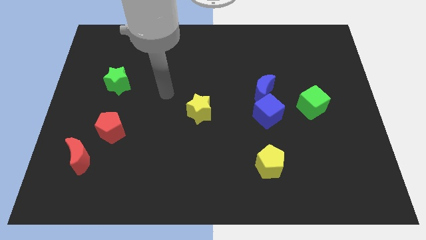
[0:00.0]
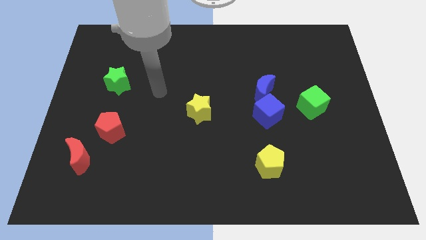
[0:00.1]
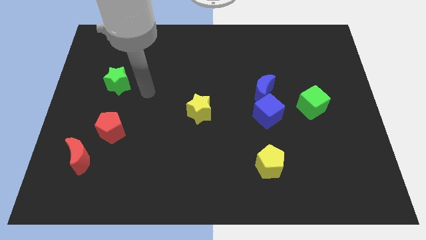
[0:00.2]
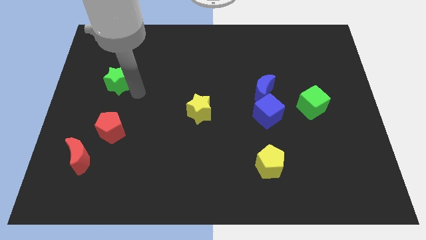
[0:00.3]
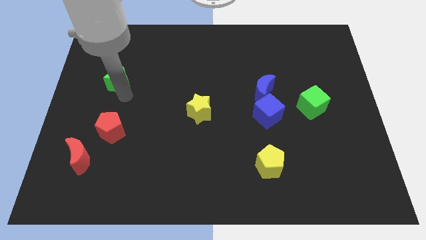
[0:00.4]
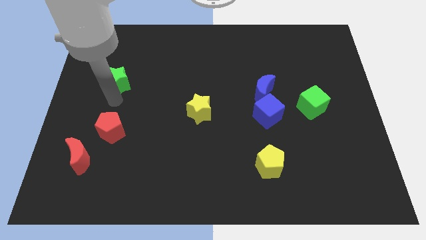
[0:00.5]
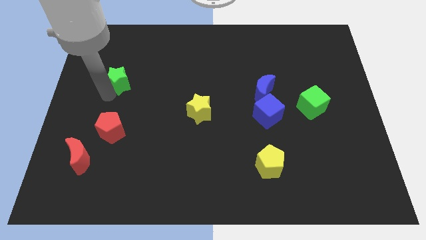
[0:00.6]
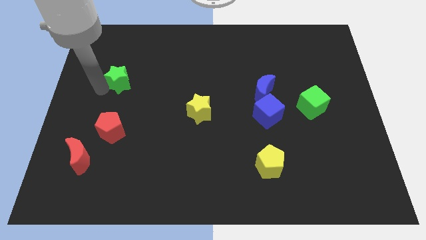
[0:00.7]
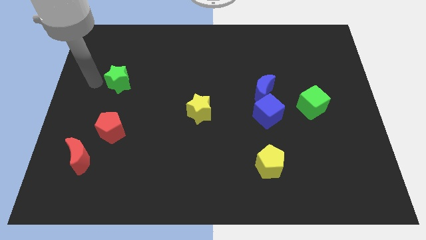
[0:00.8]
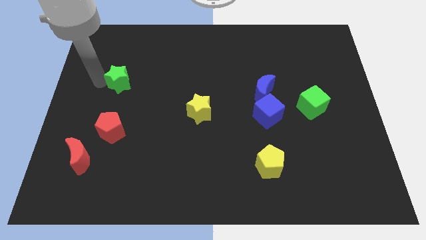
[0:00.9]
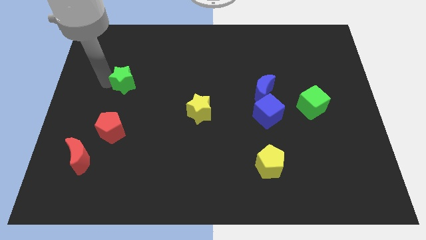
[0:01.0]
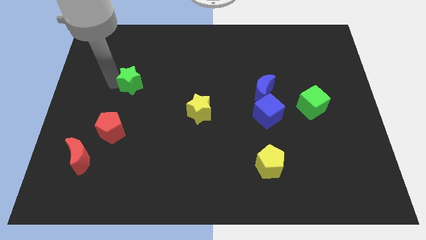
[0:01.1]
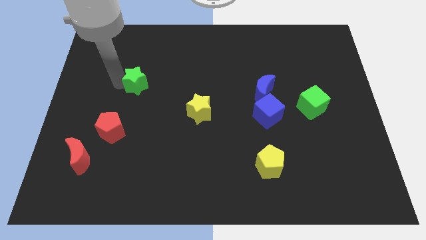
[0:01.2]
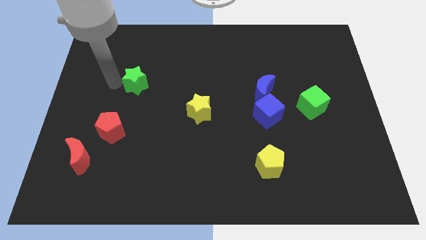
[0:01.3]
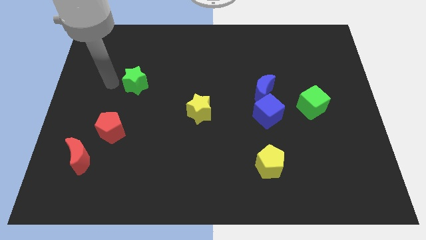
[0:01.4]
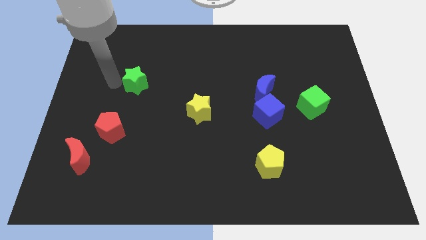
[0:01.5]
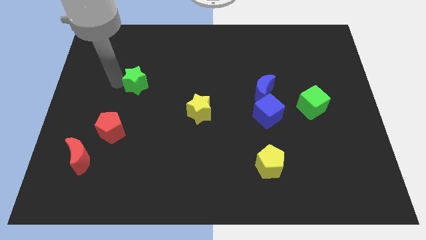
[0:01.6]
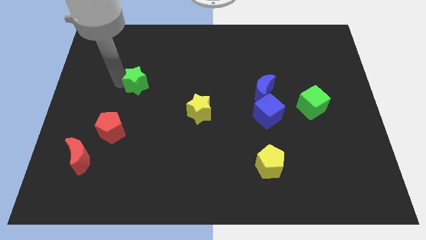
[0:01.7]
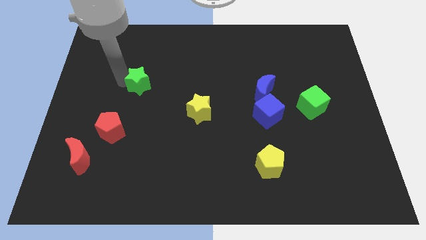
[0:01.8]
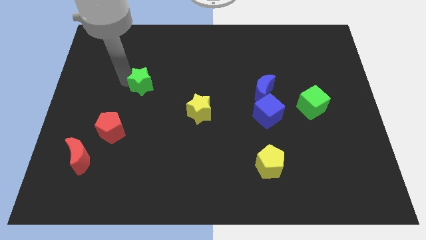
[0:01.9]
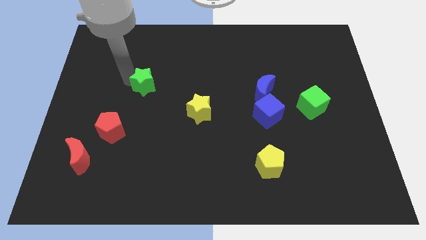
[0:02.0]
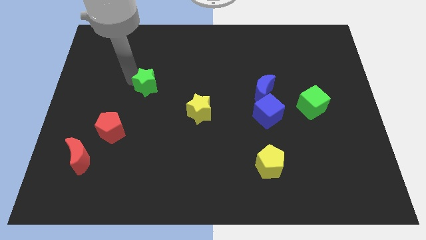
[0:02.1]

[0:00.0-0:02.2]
slightly push the green star right

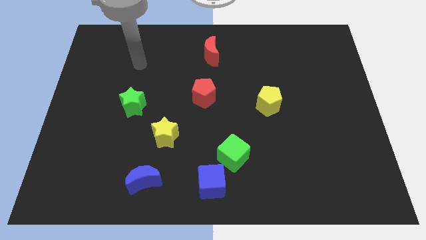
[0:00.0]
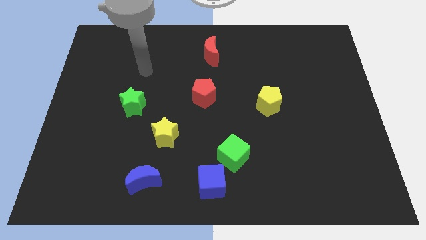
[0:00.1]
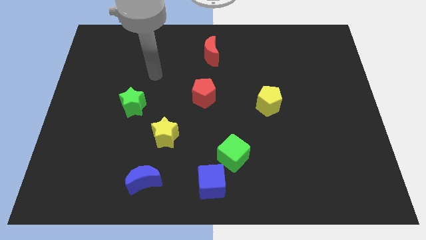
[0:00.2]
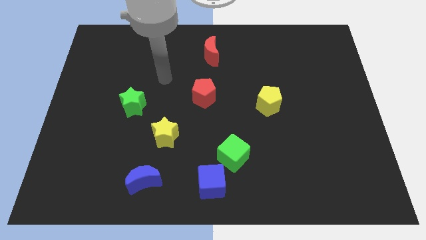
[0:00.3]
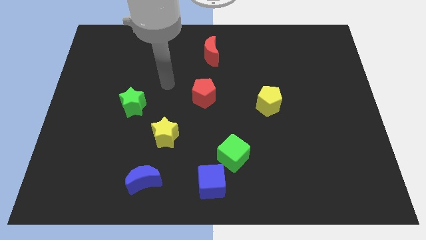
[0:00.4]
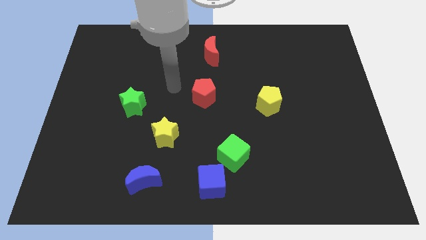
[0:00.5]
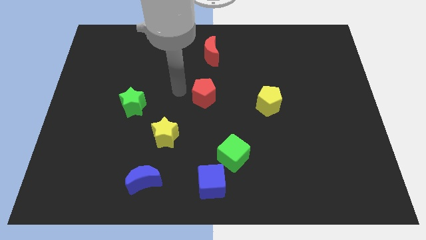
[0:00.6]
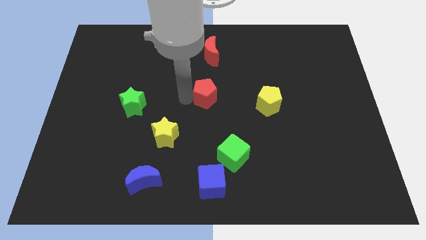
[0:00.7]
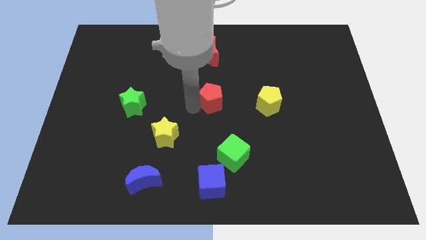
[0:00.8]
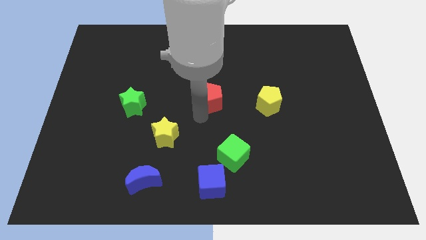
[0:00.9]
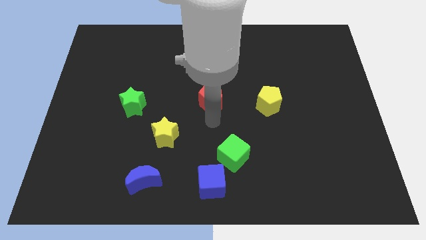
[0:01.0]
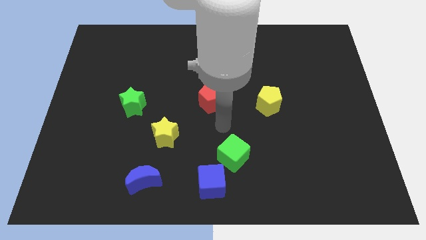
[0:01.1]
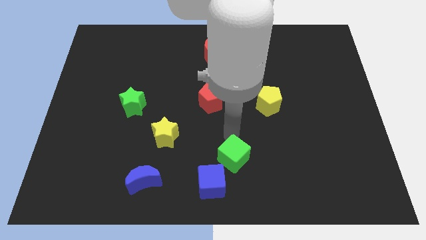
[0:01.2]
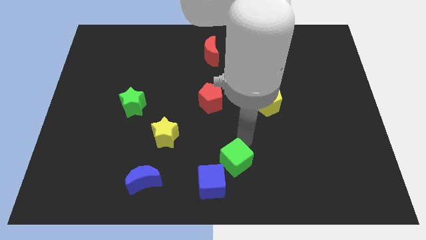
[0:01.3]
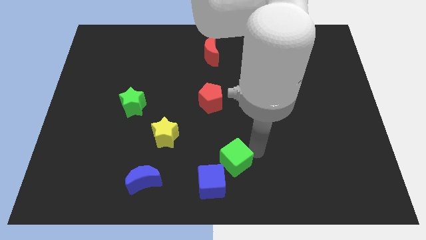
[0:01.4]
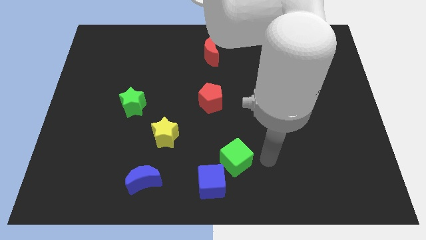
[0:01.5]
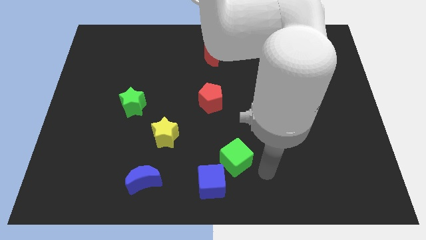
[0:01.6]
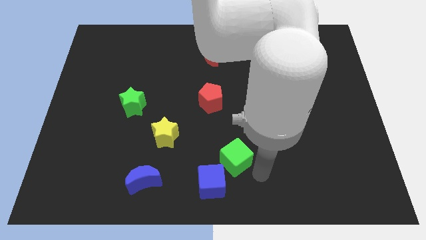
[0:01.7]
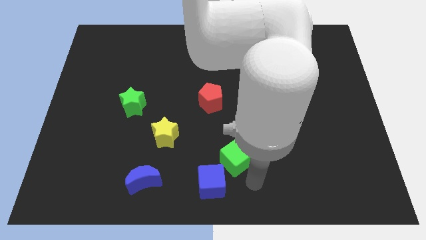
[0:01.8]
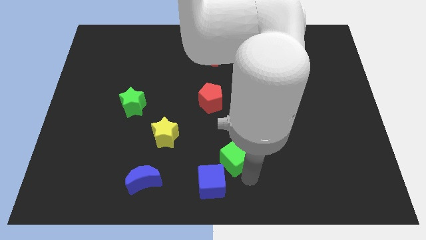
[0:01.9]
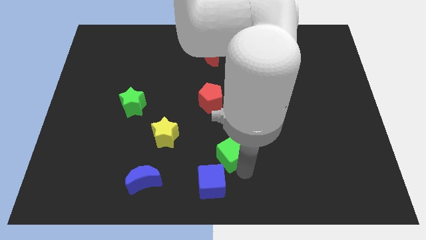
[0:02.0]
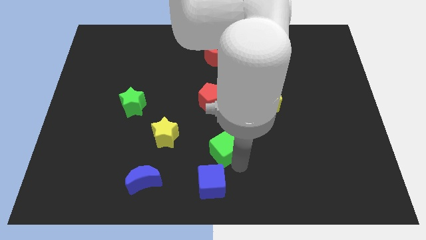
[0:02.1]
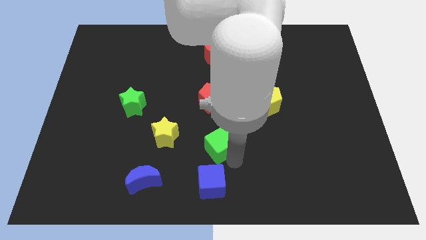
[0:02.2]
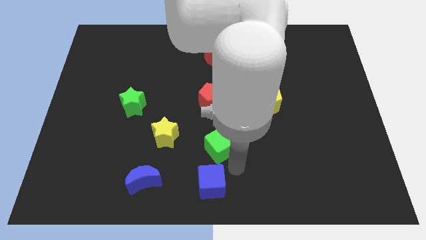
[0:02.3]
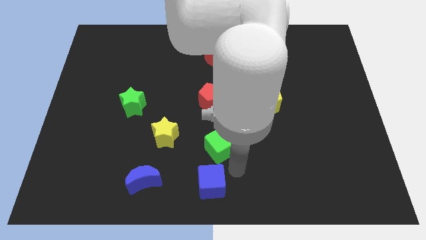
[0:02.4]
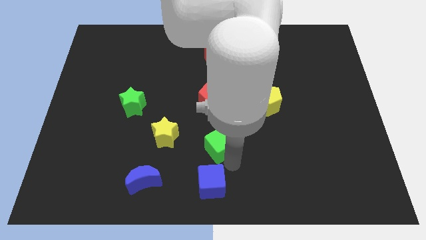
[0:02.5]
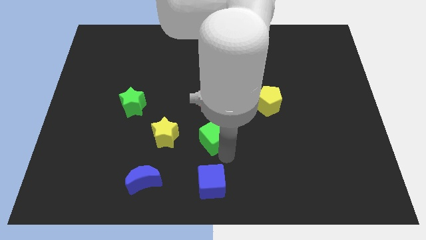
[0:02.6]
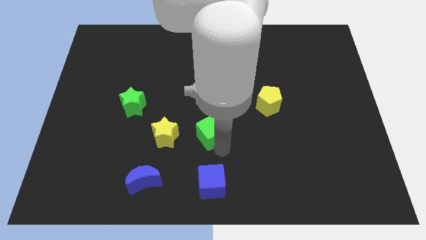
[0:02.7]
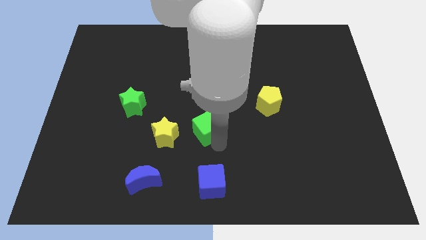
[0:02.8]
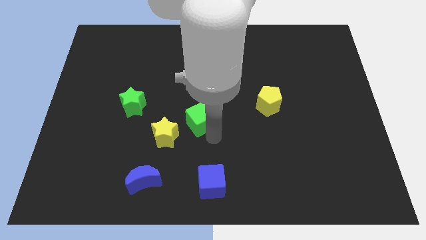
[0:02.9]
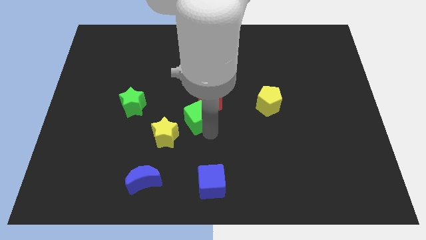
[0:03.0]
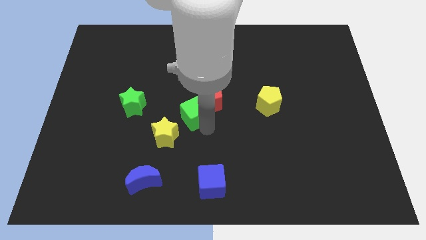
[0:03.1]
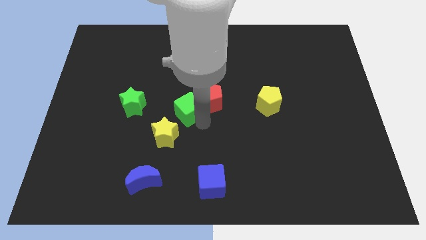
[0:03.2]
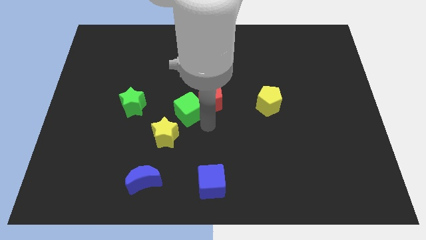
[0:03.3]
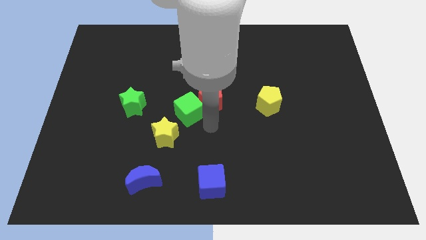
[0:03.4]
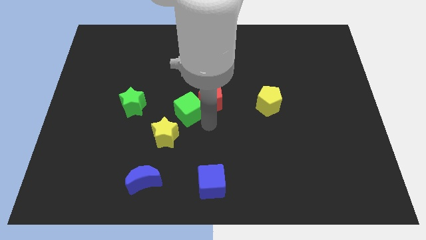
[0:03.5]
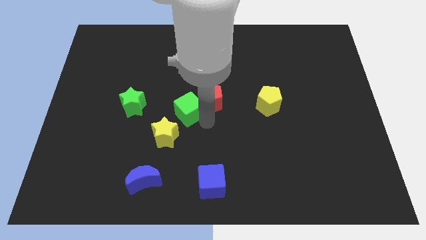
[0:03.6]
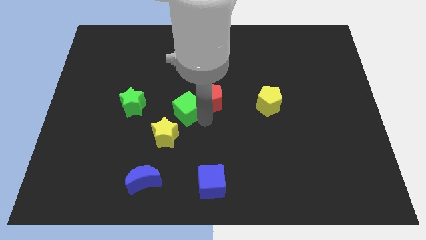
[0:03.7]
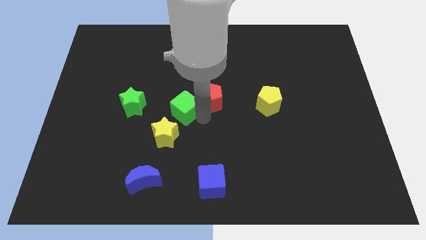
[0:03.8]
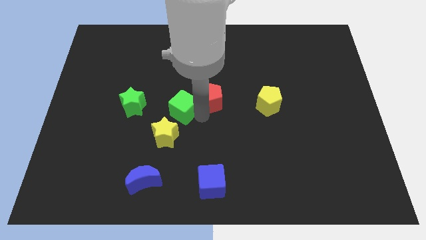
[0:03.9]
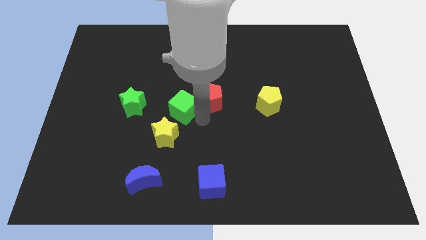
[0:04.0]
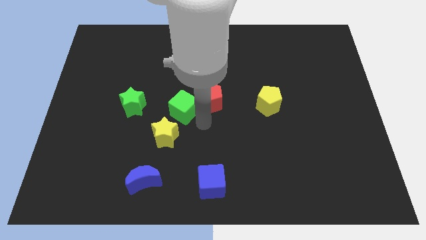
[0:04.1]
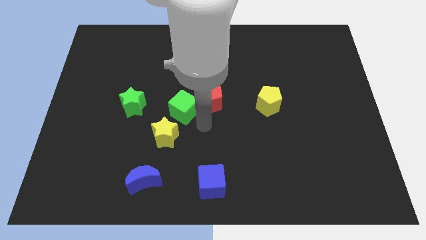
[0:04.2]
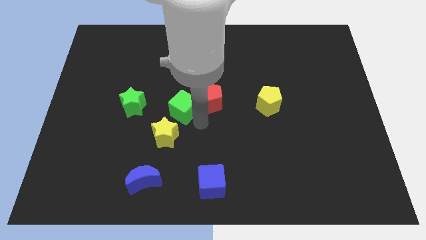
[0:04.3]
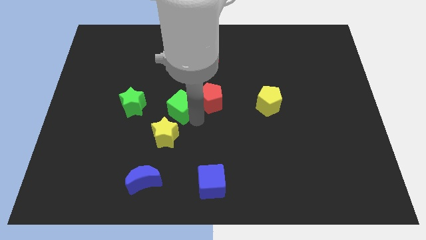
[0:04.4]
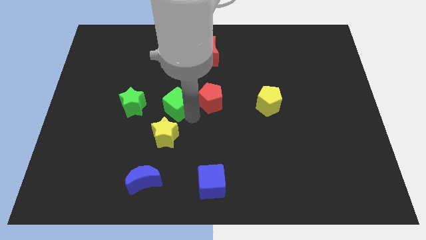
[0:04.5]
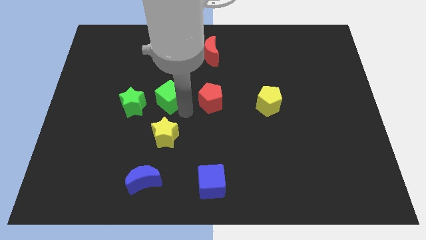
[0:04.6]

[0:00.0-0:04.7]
move the green cube upwards and left

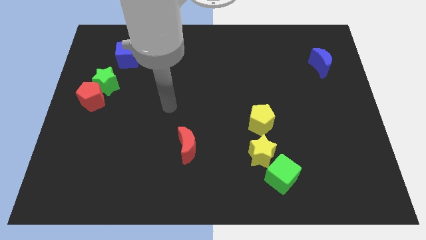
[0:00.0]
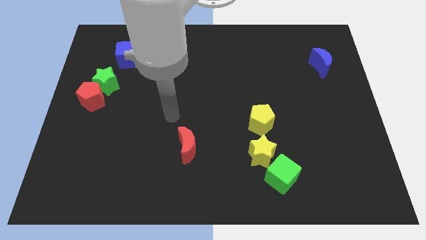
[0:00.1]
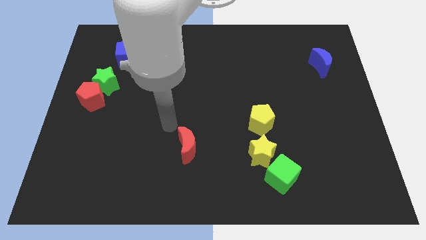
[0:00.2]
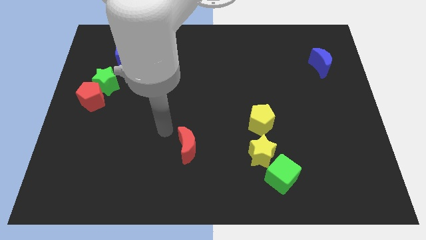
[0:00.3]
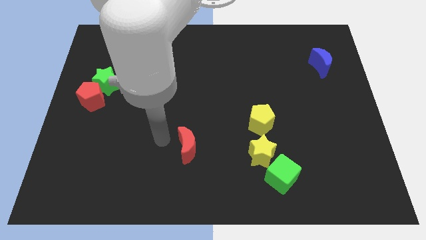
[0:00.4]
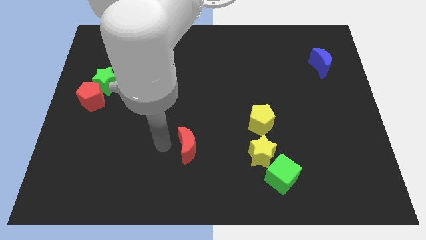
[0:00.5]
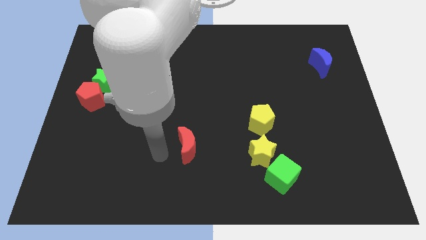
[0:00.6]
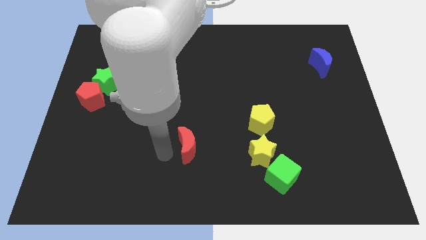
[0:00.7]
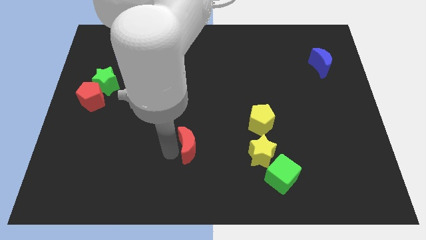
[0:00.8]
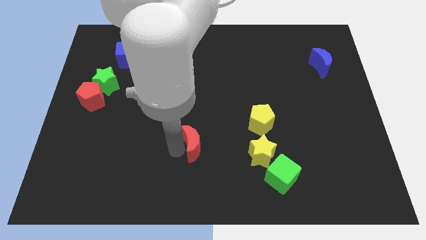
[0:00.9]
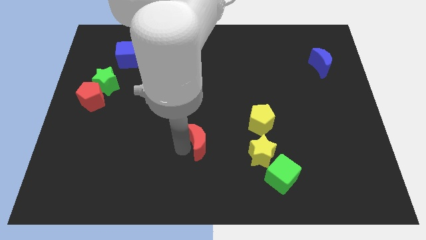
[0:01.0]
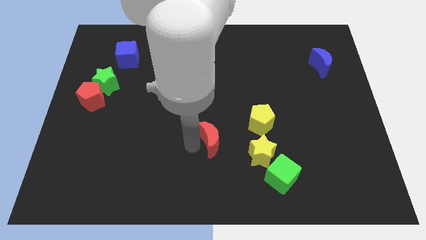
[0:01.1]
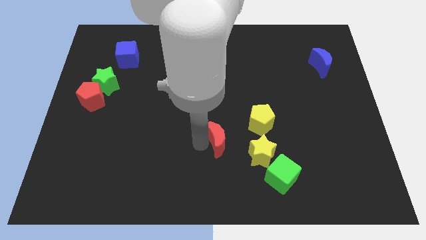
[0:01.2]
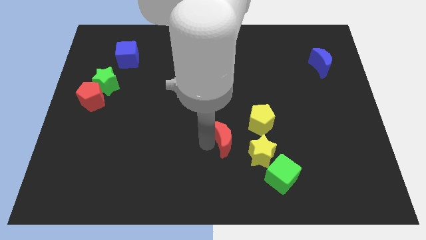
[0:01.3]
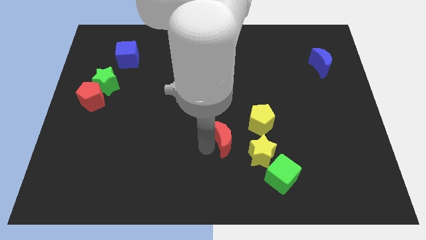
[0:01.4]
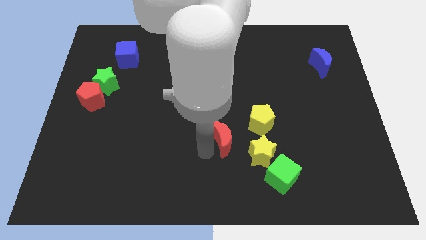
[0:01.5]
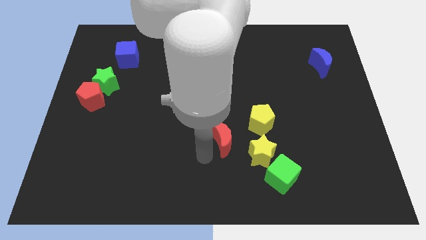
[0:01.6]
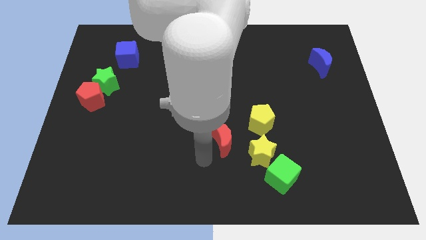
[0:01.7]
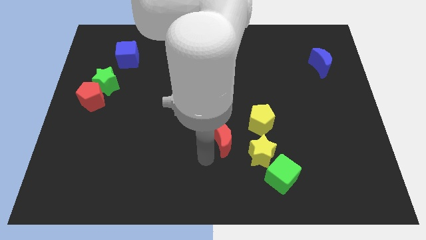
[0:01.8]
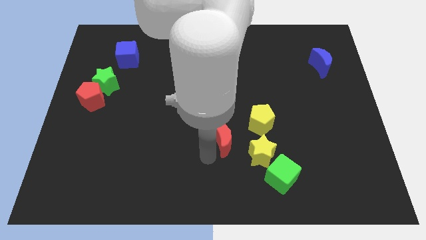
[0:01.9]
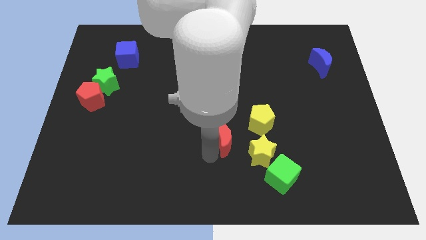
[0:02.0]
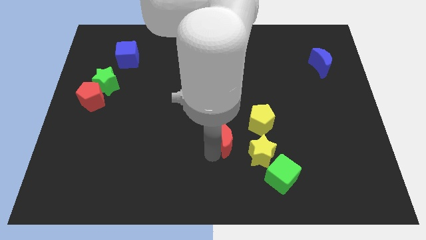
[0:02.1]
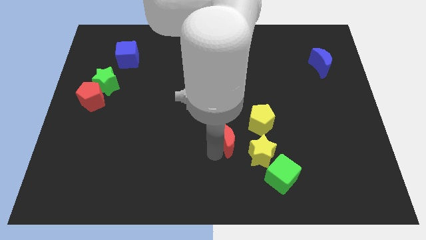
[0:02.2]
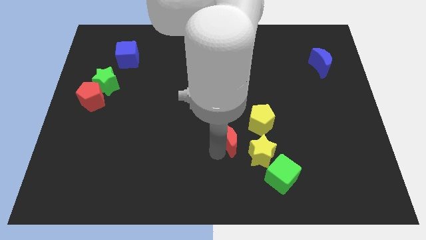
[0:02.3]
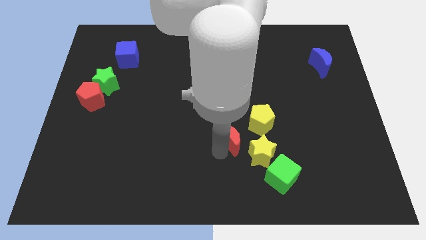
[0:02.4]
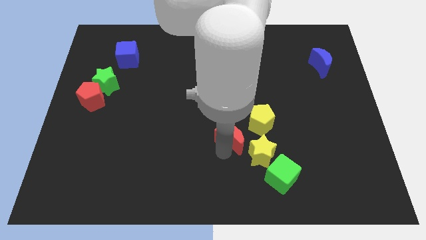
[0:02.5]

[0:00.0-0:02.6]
slightly push the red moon upwards and then right
